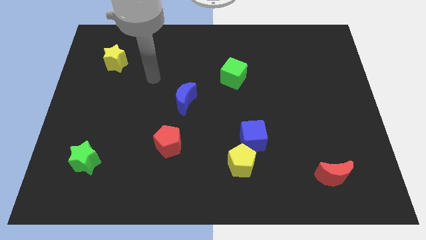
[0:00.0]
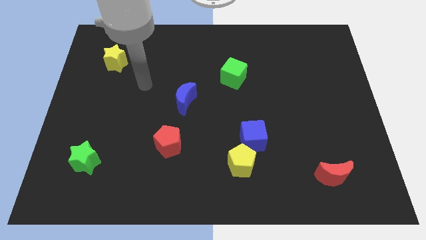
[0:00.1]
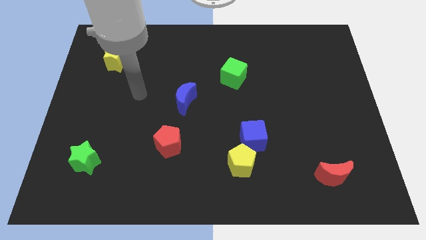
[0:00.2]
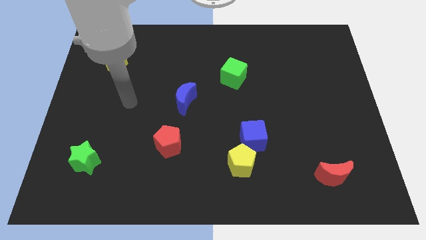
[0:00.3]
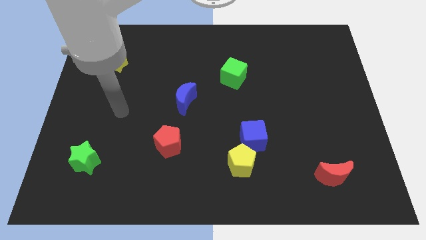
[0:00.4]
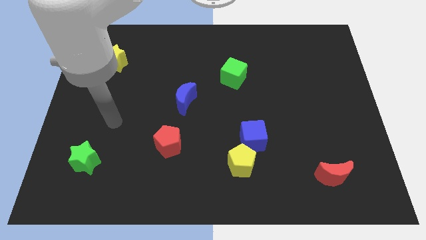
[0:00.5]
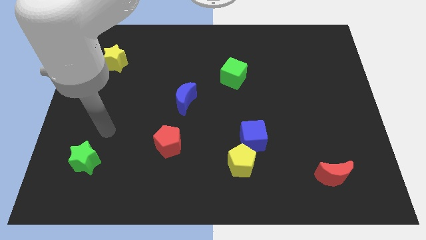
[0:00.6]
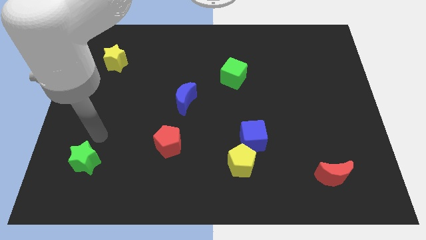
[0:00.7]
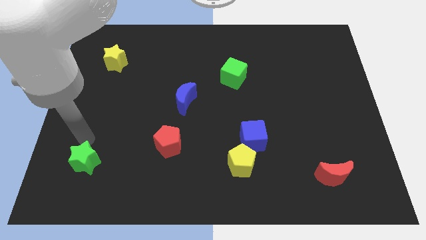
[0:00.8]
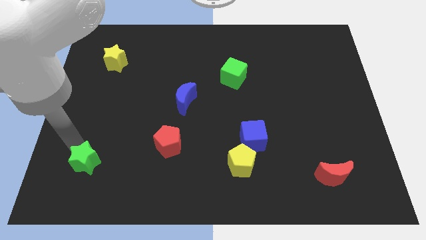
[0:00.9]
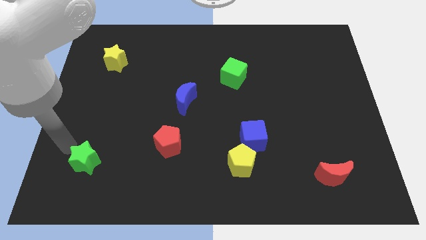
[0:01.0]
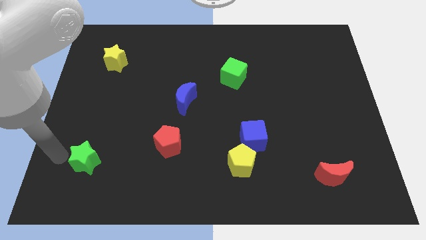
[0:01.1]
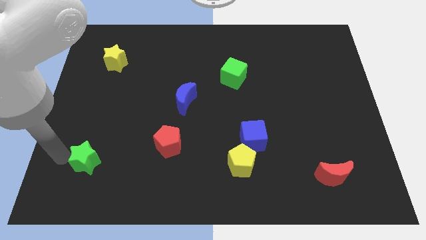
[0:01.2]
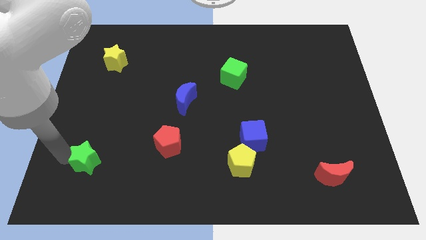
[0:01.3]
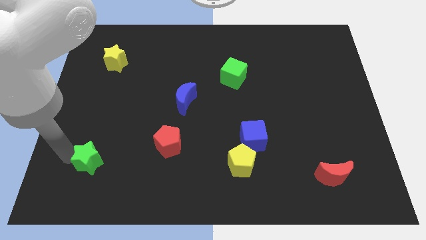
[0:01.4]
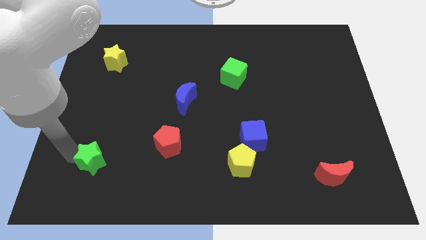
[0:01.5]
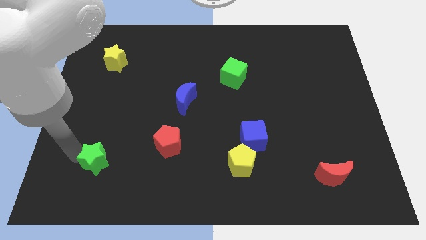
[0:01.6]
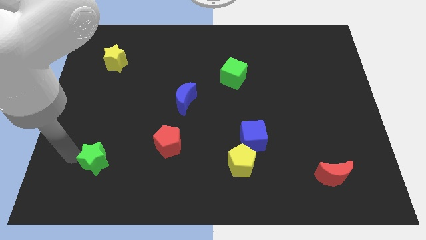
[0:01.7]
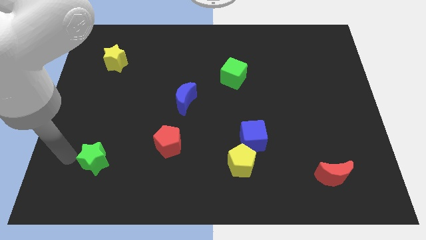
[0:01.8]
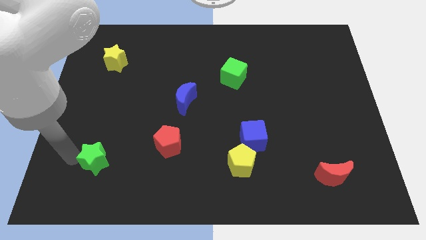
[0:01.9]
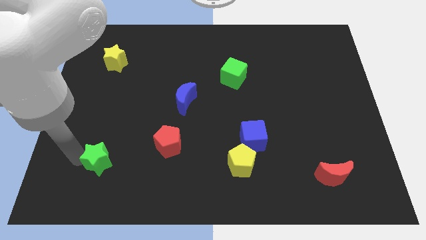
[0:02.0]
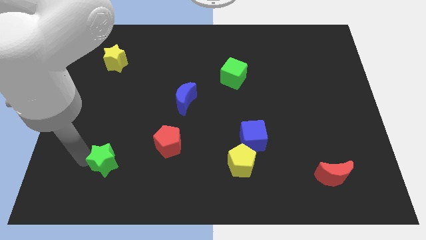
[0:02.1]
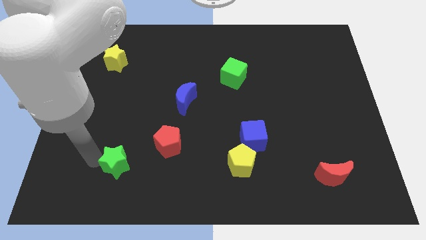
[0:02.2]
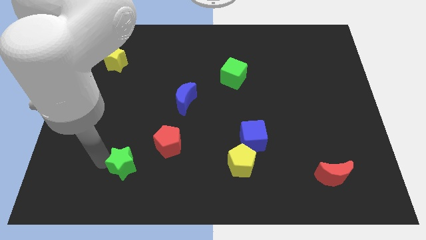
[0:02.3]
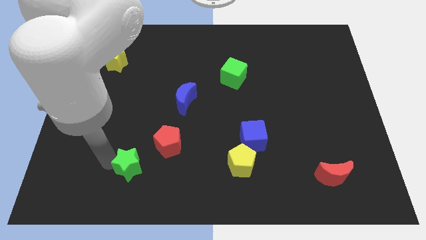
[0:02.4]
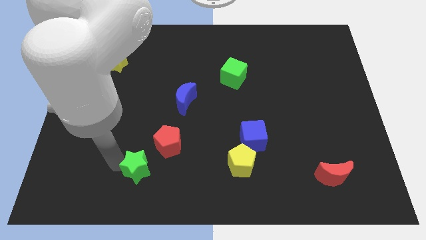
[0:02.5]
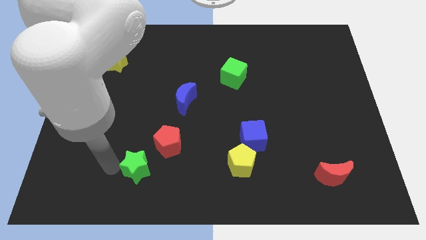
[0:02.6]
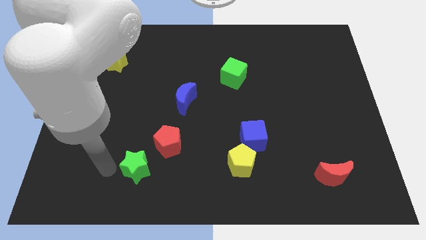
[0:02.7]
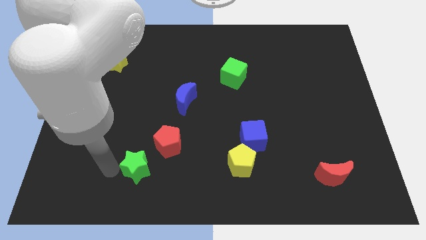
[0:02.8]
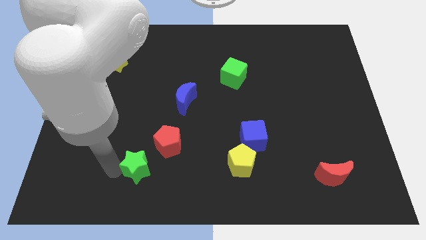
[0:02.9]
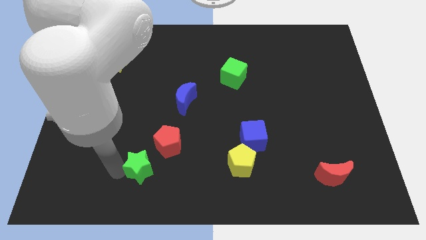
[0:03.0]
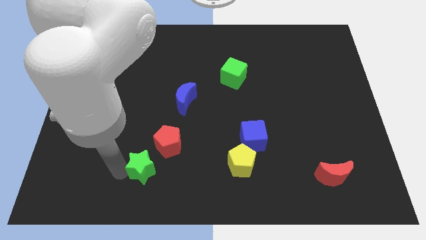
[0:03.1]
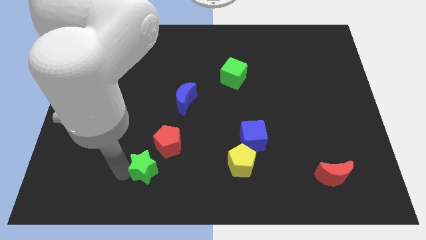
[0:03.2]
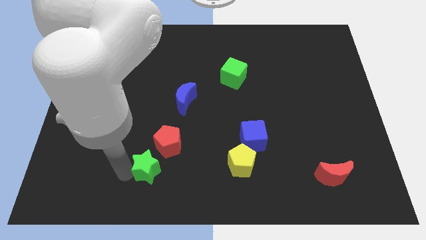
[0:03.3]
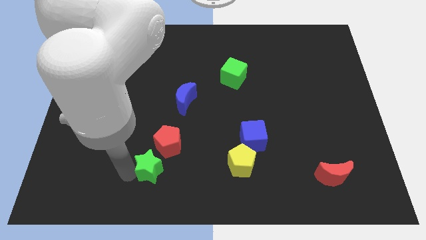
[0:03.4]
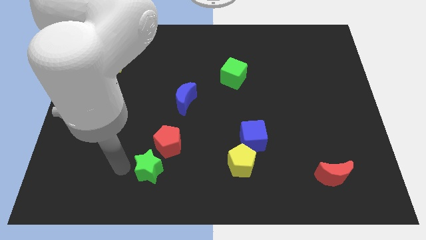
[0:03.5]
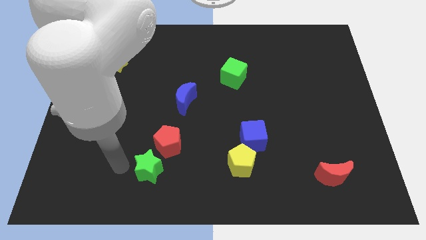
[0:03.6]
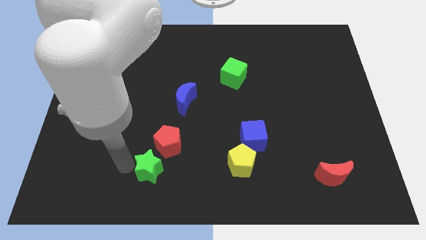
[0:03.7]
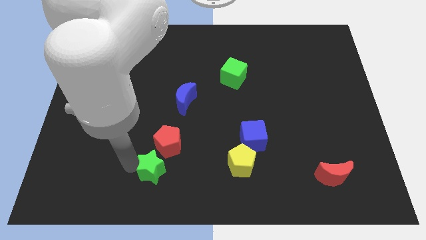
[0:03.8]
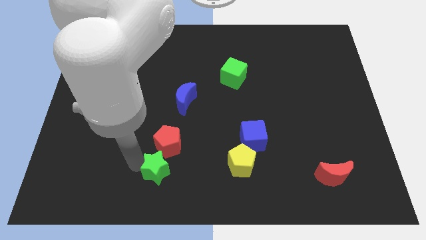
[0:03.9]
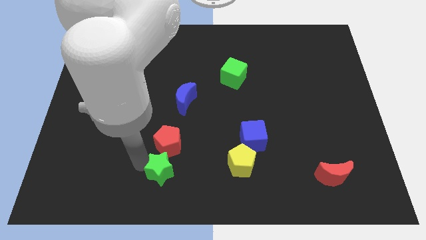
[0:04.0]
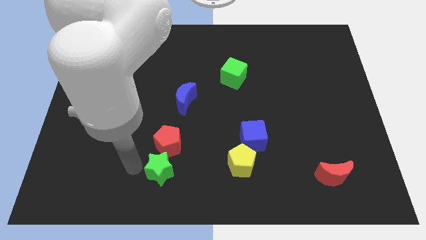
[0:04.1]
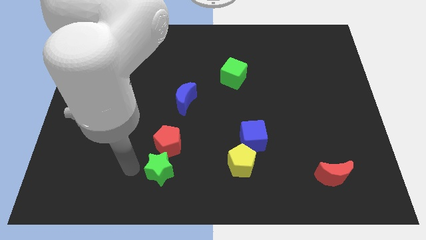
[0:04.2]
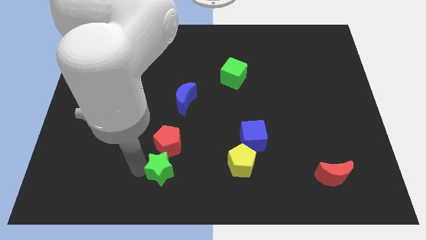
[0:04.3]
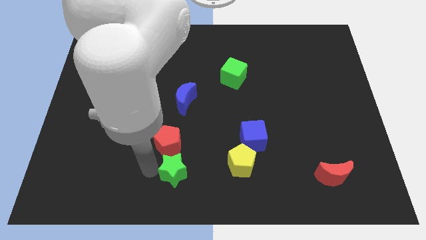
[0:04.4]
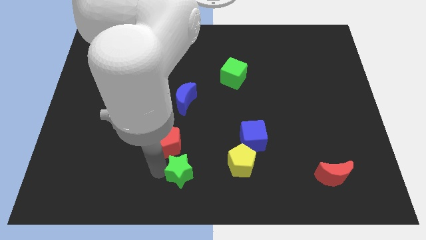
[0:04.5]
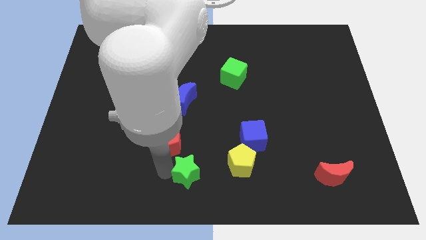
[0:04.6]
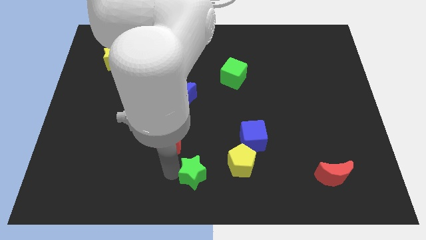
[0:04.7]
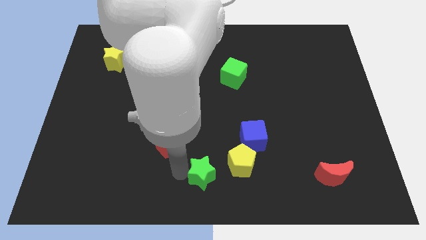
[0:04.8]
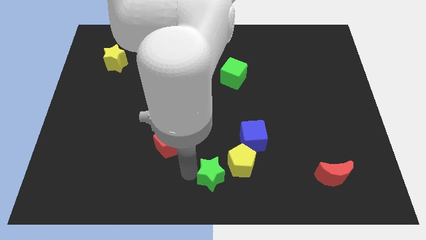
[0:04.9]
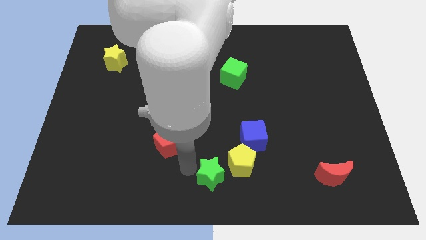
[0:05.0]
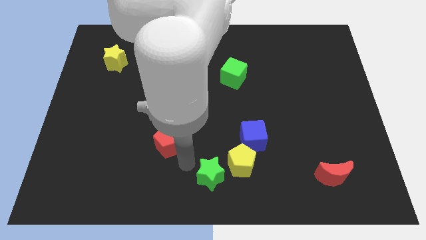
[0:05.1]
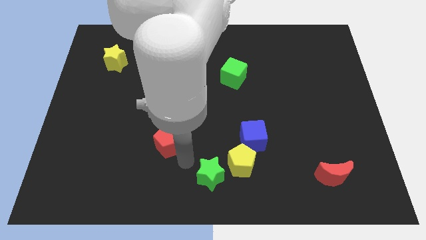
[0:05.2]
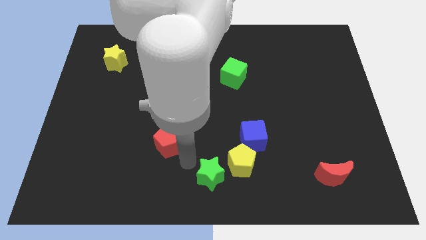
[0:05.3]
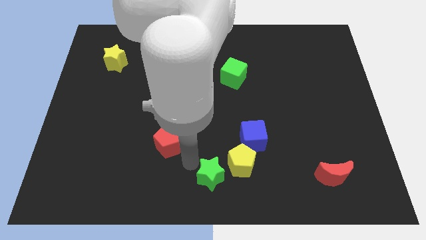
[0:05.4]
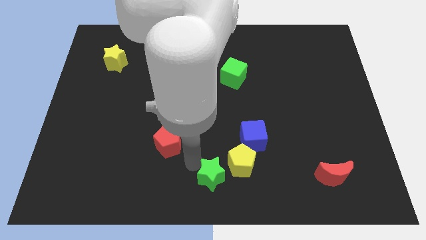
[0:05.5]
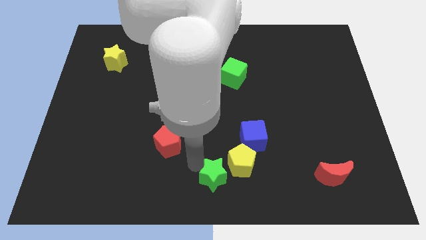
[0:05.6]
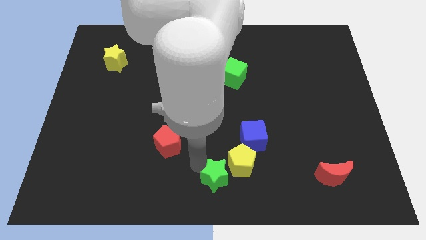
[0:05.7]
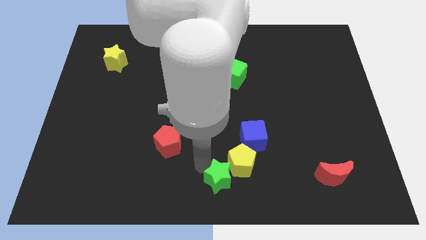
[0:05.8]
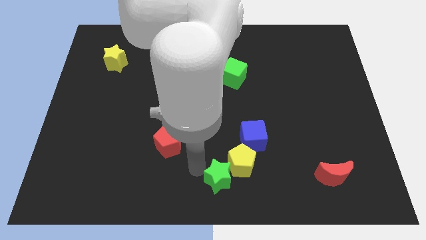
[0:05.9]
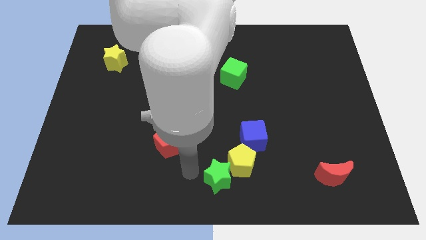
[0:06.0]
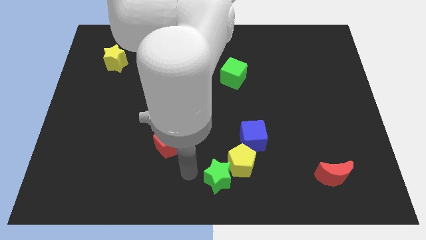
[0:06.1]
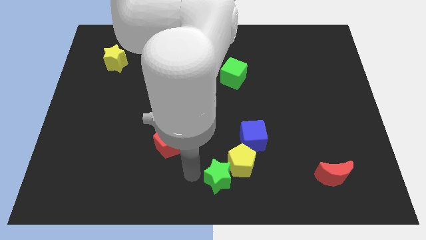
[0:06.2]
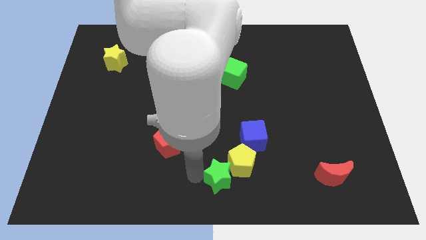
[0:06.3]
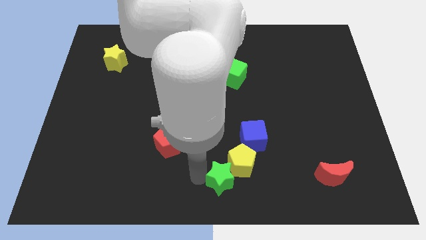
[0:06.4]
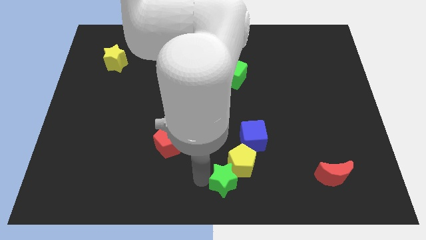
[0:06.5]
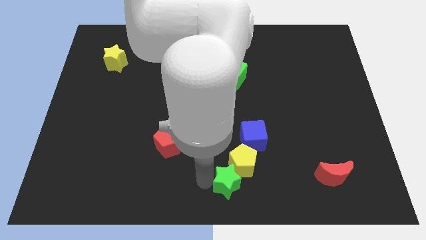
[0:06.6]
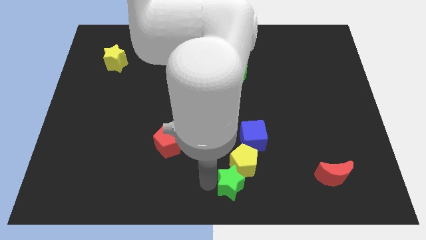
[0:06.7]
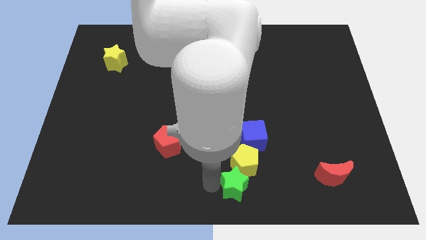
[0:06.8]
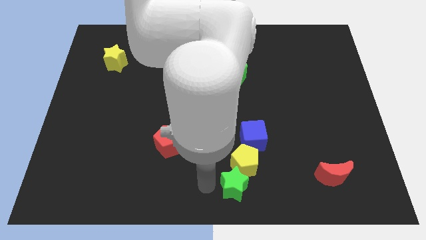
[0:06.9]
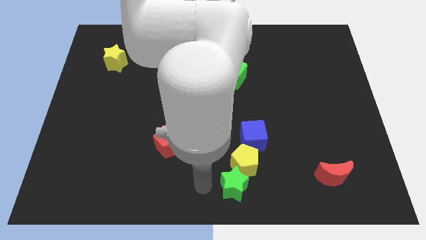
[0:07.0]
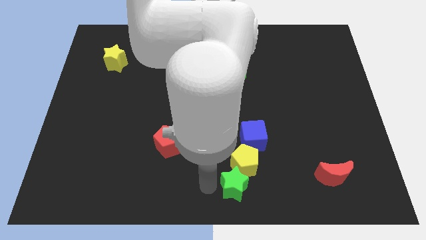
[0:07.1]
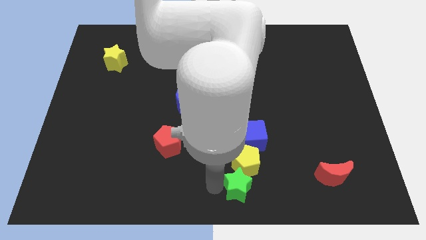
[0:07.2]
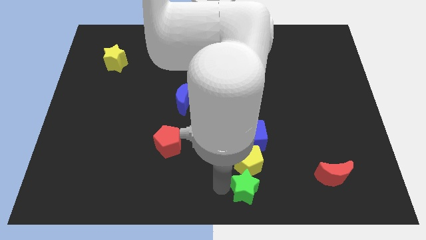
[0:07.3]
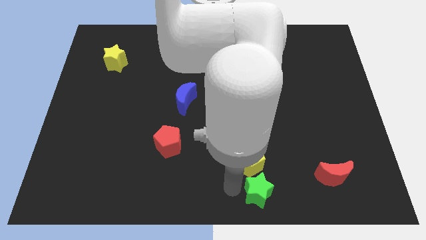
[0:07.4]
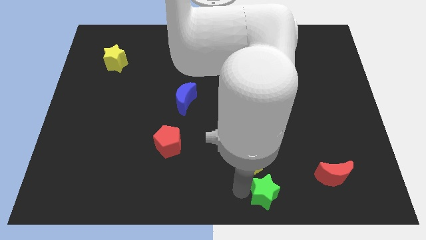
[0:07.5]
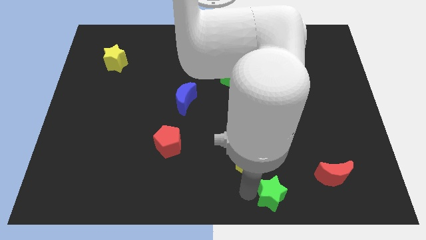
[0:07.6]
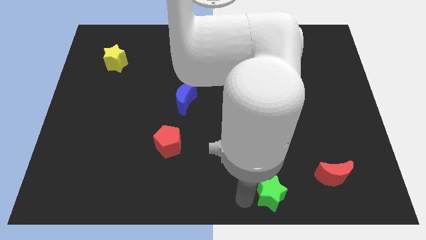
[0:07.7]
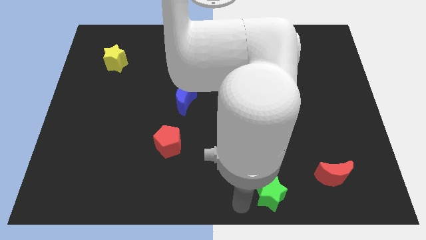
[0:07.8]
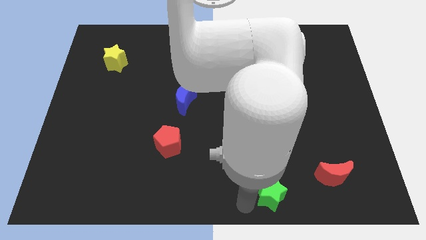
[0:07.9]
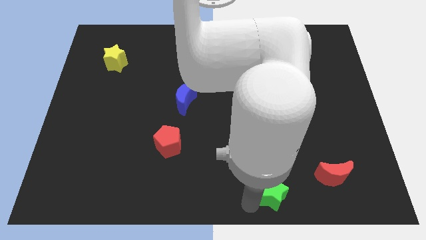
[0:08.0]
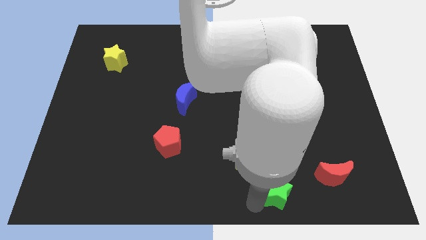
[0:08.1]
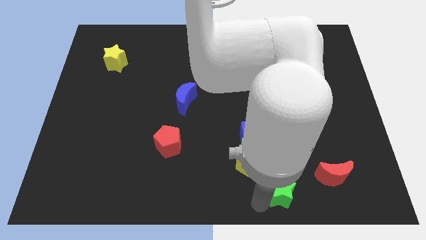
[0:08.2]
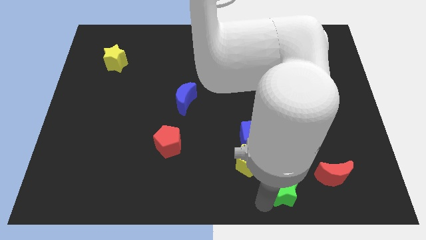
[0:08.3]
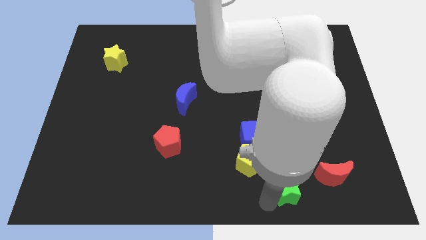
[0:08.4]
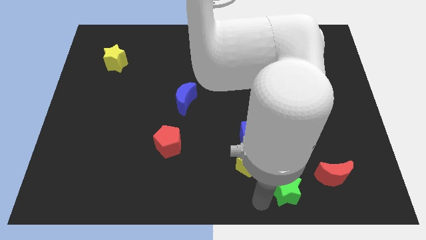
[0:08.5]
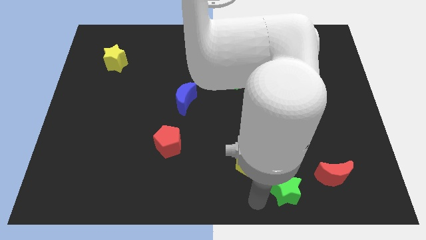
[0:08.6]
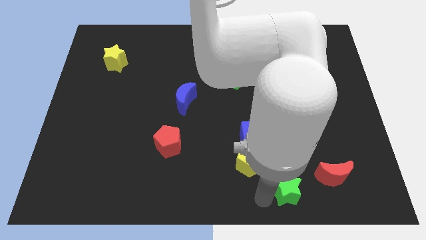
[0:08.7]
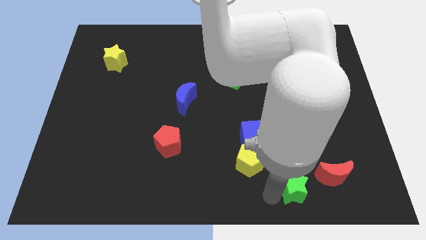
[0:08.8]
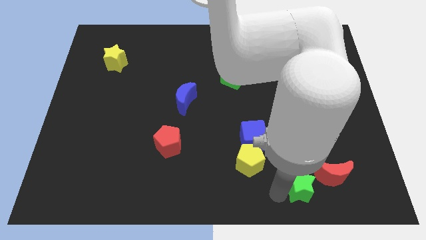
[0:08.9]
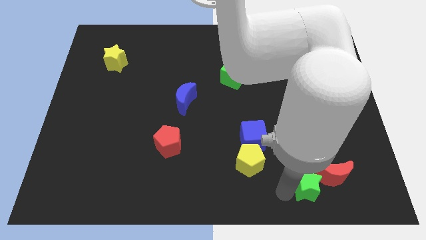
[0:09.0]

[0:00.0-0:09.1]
move the green star next to the red moon
